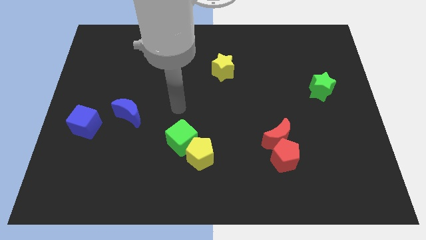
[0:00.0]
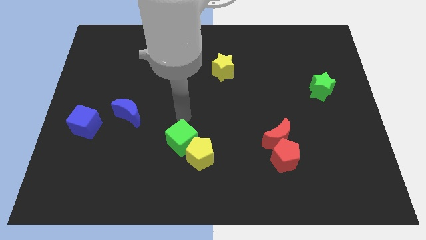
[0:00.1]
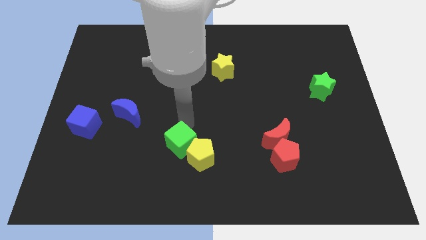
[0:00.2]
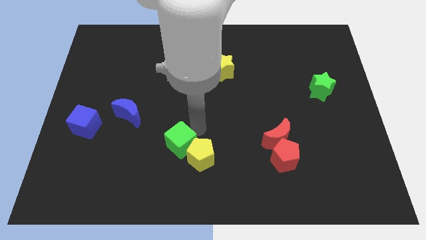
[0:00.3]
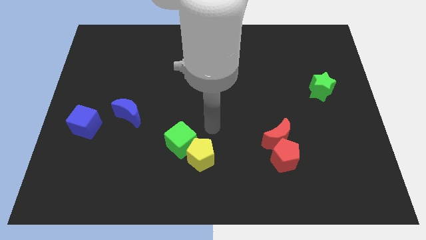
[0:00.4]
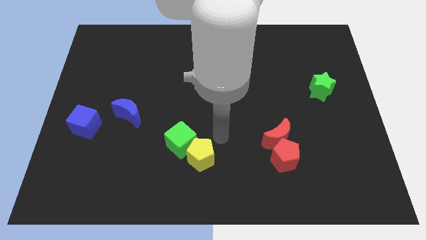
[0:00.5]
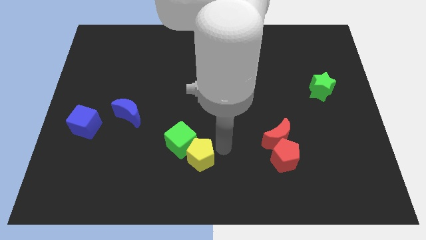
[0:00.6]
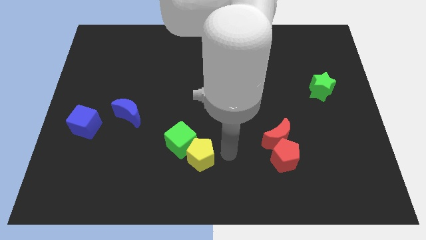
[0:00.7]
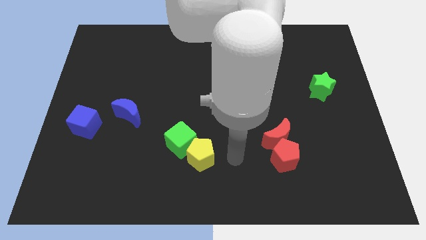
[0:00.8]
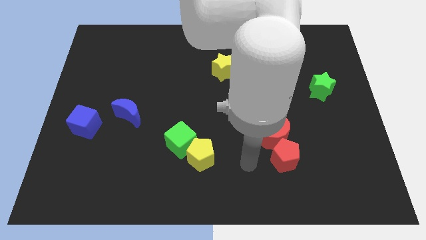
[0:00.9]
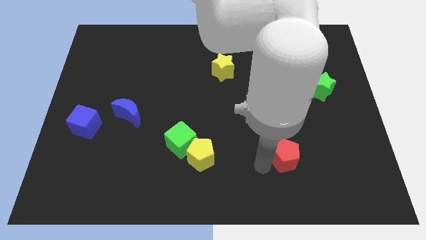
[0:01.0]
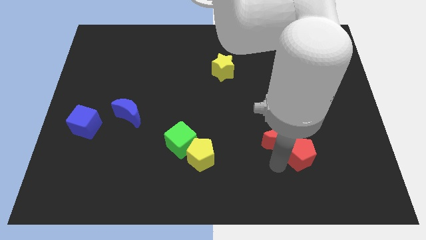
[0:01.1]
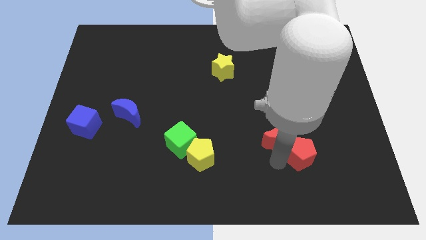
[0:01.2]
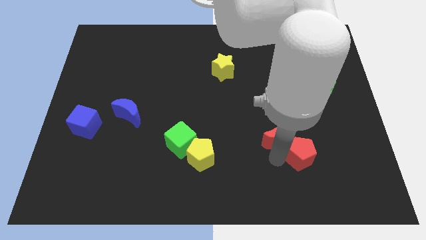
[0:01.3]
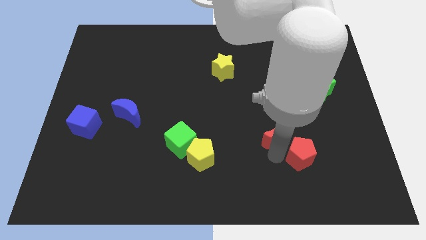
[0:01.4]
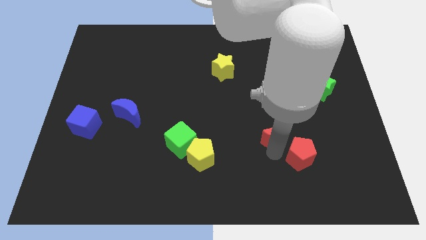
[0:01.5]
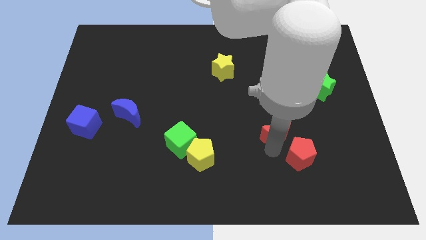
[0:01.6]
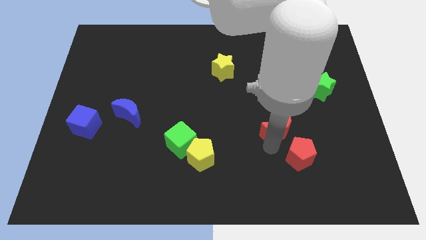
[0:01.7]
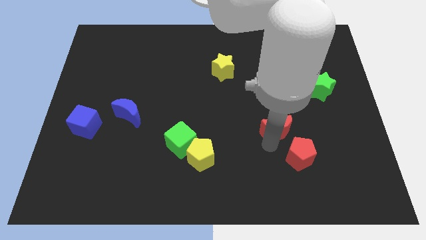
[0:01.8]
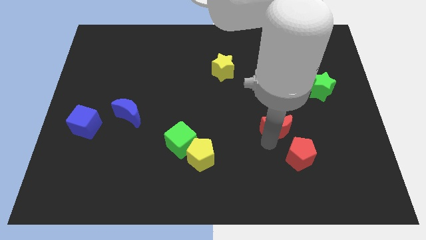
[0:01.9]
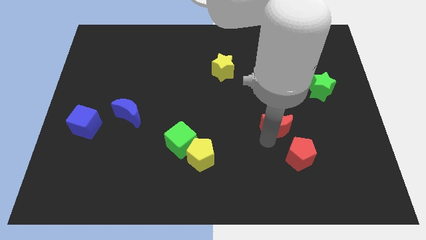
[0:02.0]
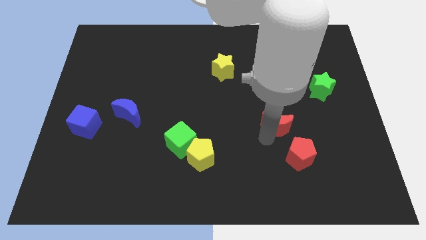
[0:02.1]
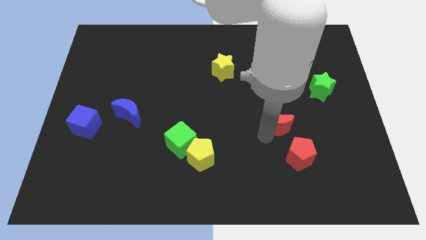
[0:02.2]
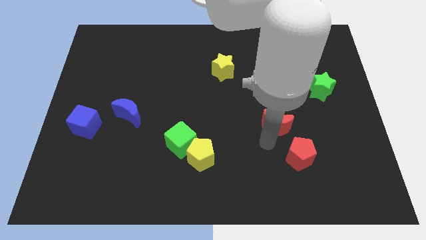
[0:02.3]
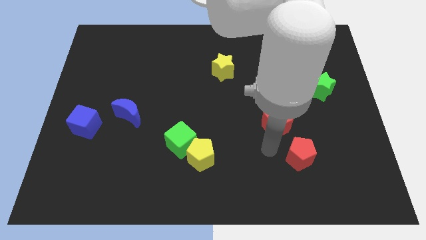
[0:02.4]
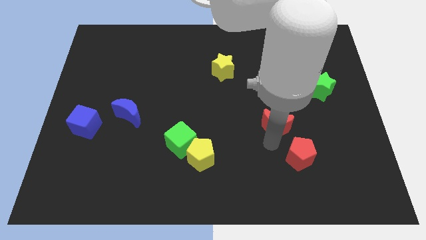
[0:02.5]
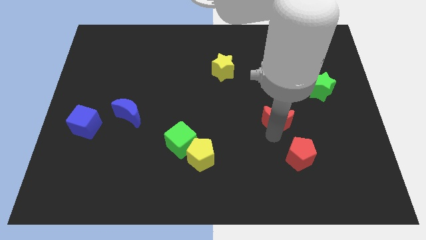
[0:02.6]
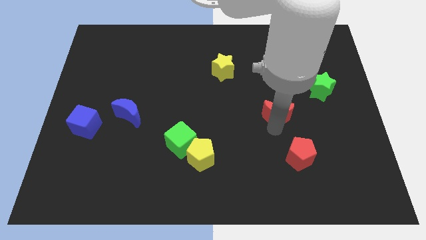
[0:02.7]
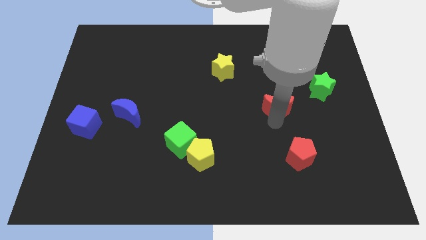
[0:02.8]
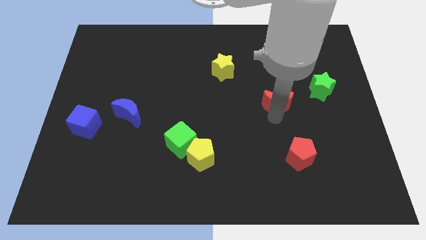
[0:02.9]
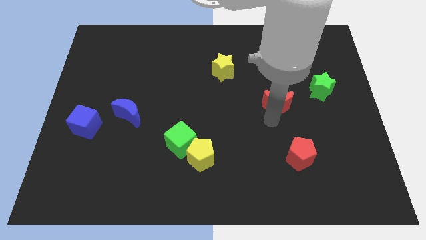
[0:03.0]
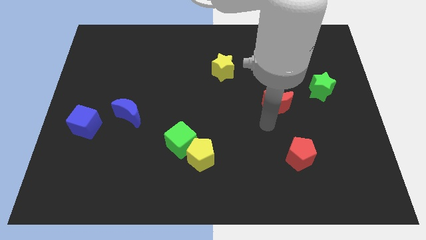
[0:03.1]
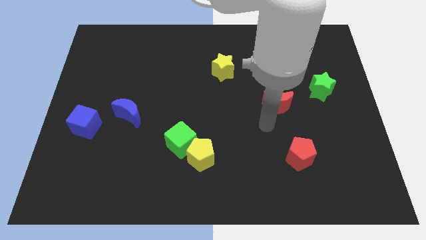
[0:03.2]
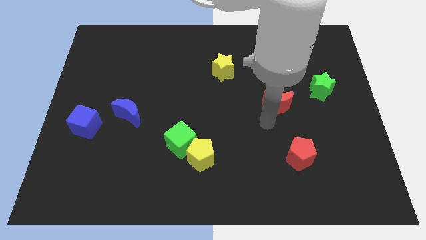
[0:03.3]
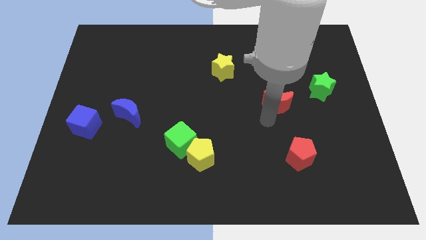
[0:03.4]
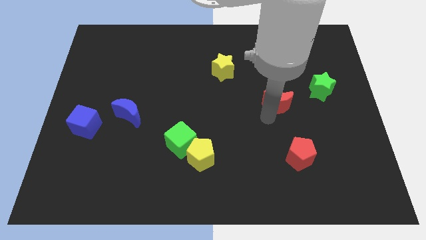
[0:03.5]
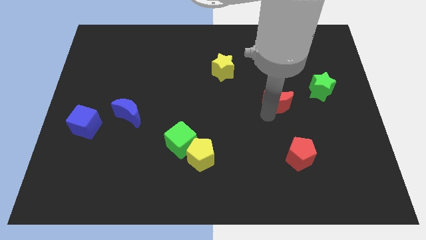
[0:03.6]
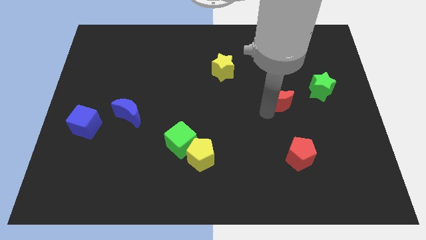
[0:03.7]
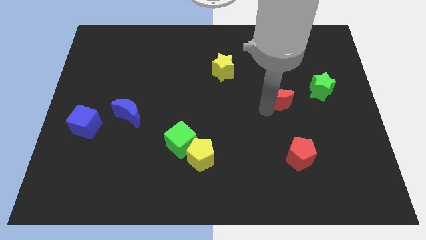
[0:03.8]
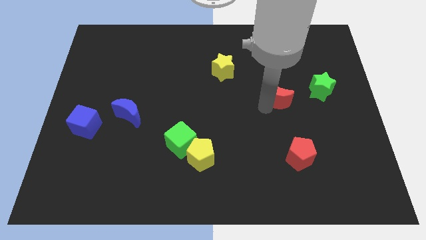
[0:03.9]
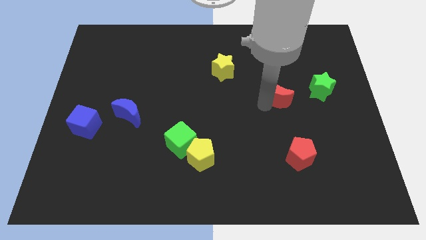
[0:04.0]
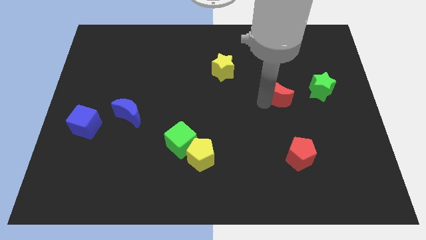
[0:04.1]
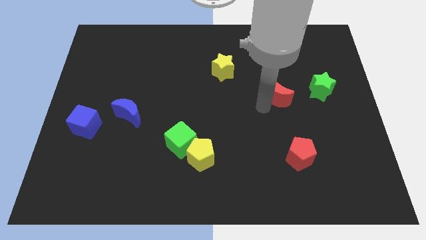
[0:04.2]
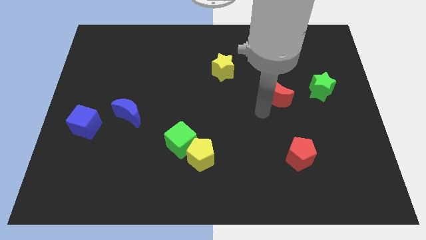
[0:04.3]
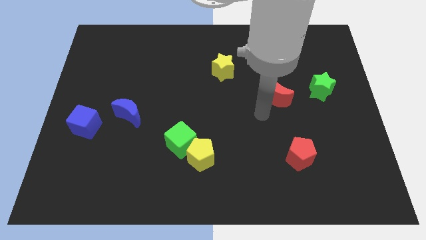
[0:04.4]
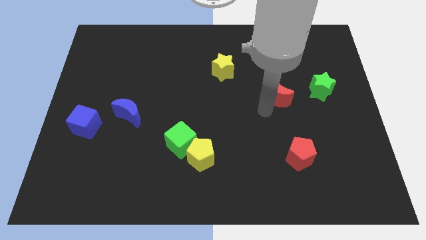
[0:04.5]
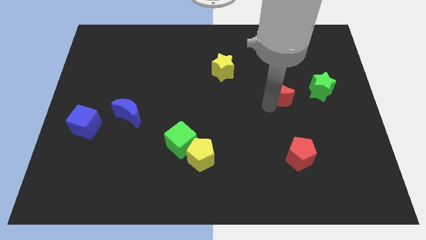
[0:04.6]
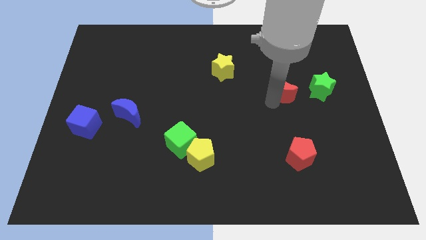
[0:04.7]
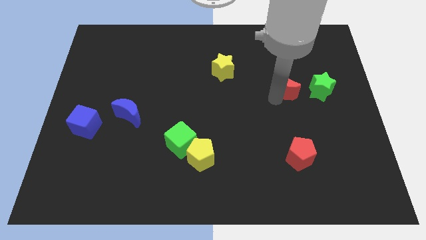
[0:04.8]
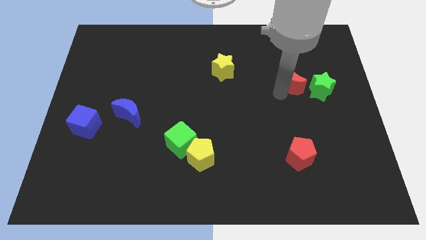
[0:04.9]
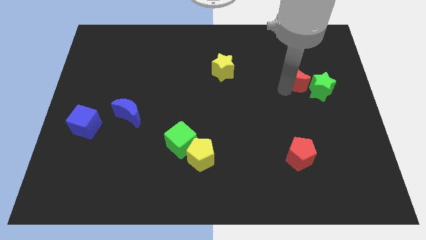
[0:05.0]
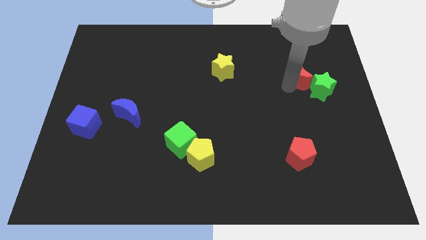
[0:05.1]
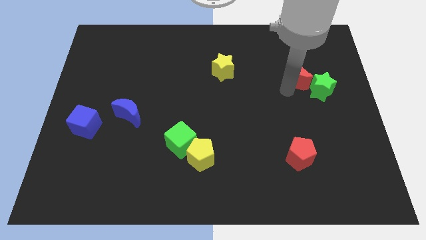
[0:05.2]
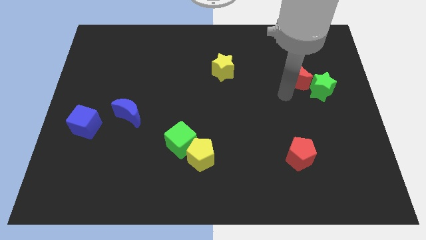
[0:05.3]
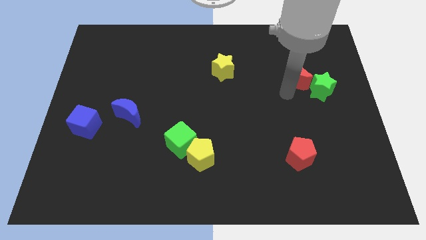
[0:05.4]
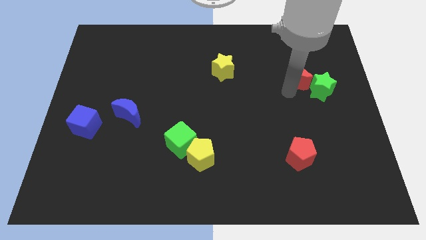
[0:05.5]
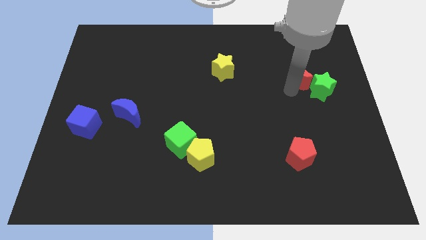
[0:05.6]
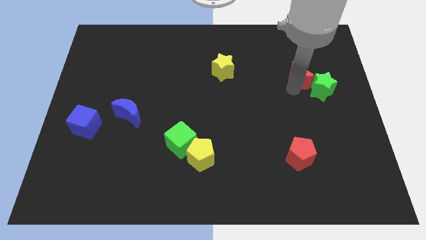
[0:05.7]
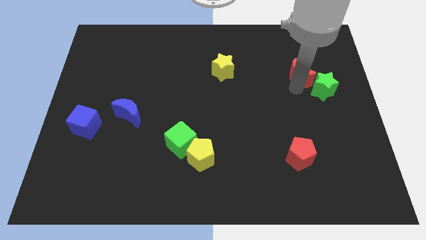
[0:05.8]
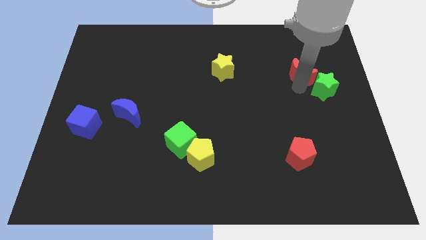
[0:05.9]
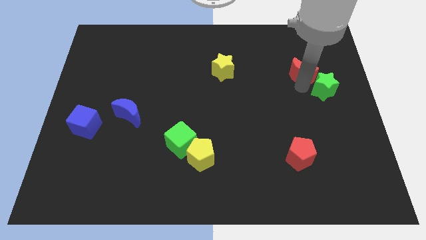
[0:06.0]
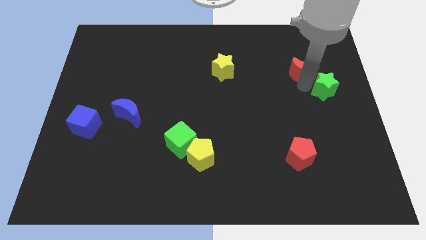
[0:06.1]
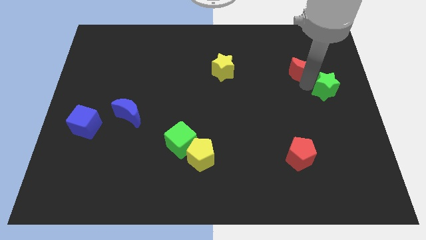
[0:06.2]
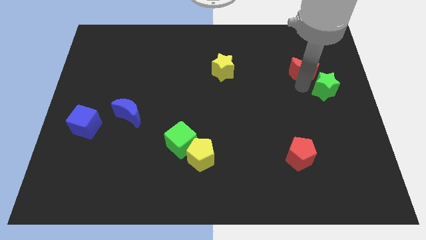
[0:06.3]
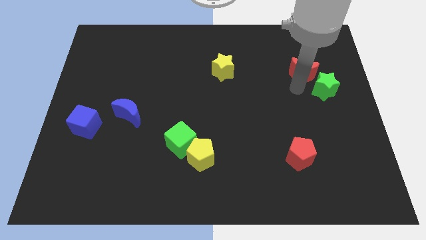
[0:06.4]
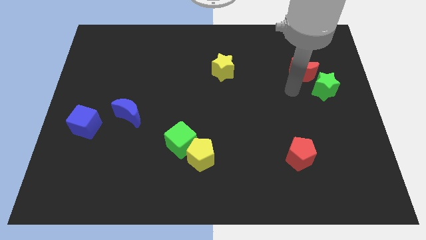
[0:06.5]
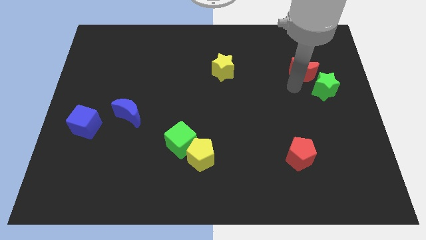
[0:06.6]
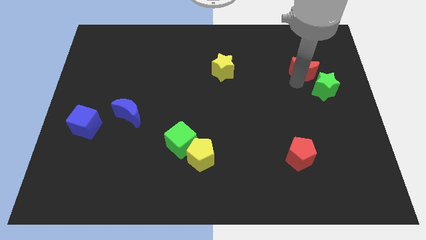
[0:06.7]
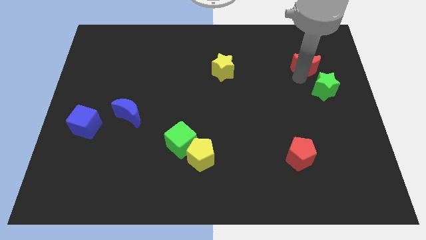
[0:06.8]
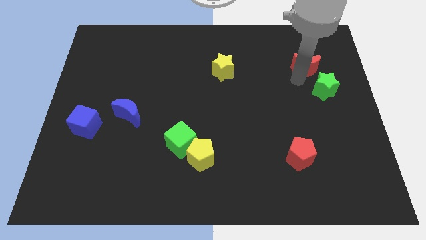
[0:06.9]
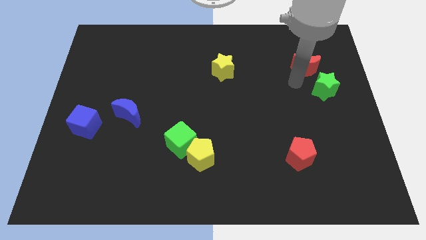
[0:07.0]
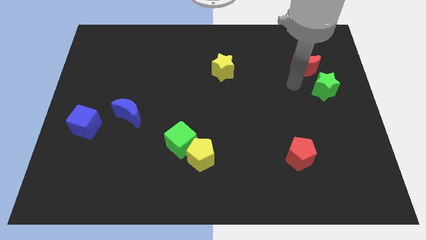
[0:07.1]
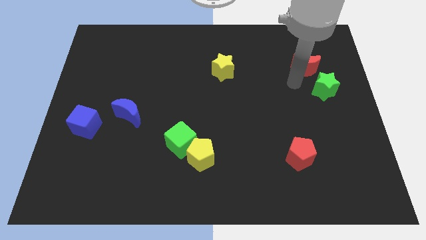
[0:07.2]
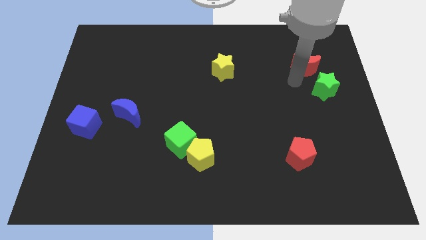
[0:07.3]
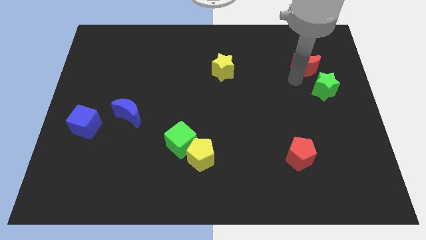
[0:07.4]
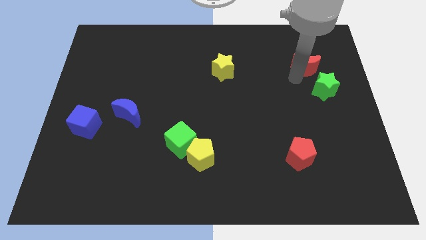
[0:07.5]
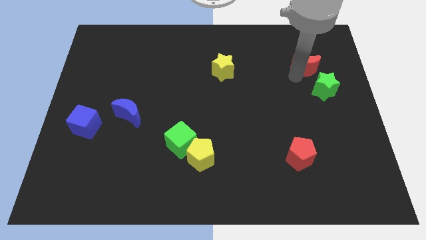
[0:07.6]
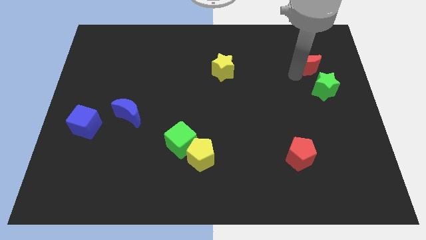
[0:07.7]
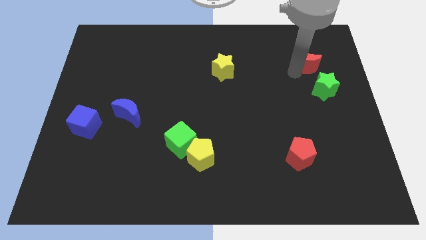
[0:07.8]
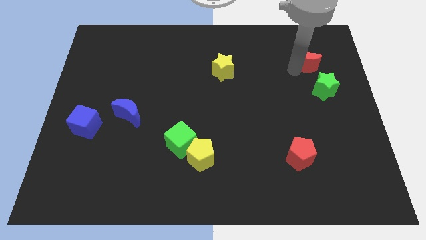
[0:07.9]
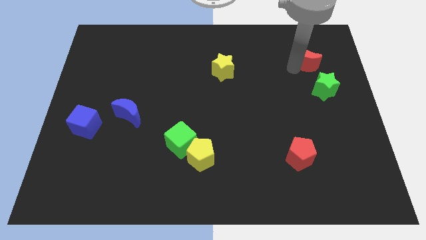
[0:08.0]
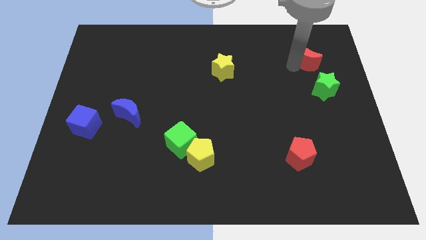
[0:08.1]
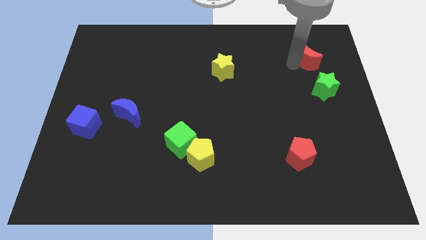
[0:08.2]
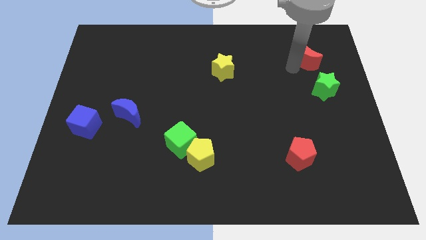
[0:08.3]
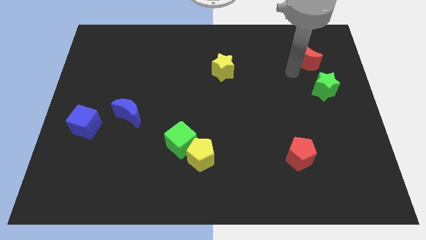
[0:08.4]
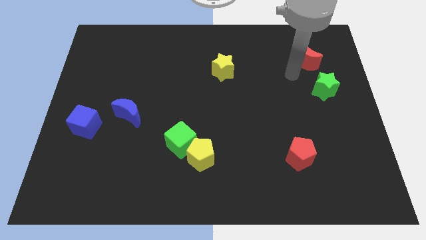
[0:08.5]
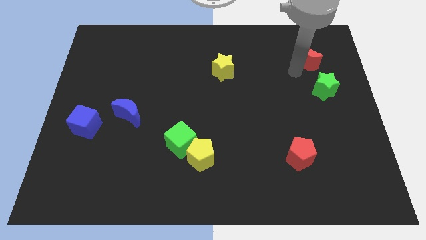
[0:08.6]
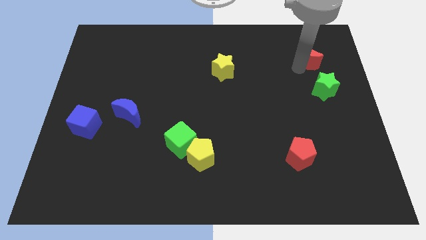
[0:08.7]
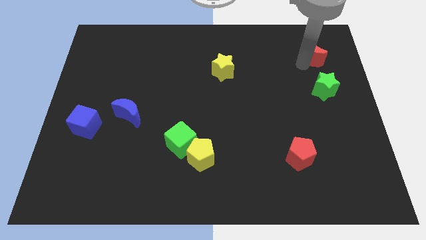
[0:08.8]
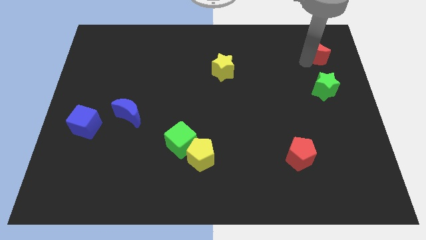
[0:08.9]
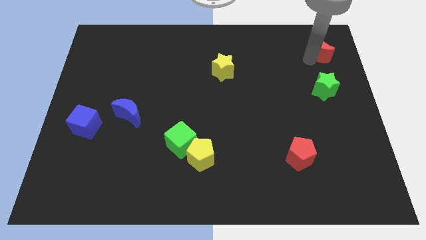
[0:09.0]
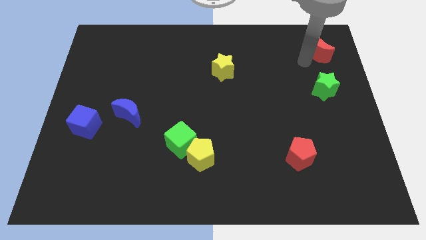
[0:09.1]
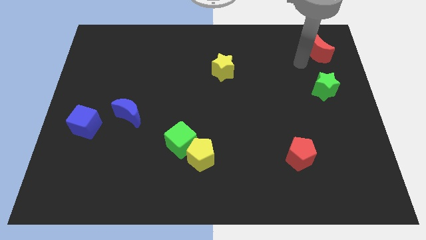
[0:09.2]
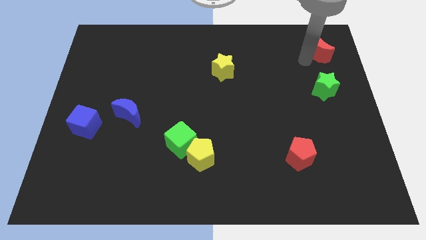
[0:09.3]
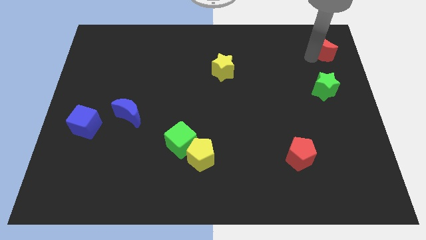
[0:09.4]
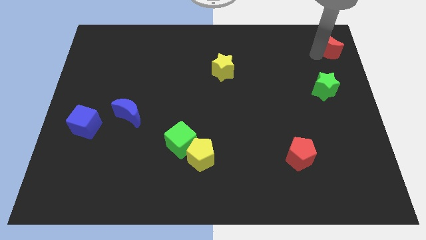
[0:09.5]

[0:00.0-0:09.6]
put the red moon to the upper right corner
